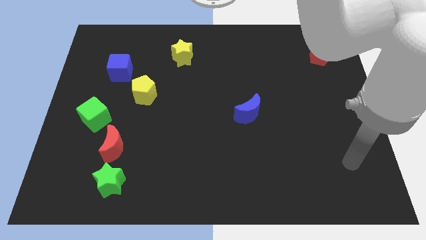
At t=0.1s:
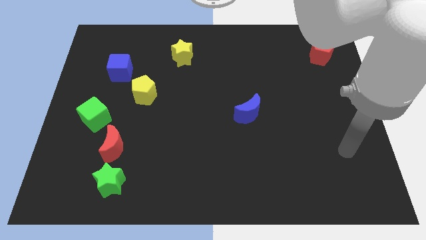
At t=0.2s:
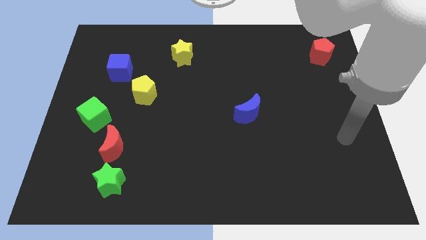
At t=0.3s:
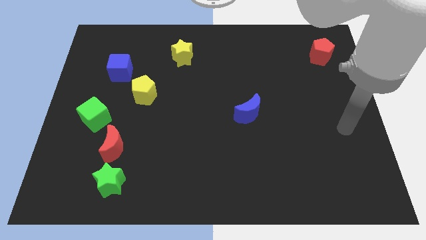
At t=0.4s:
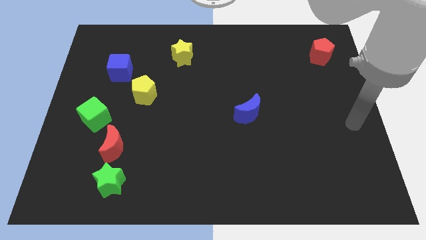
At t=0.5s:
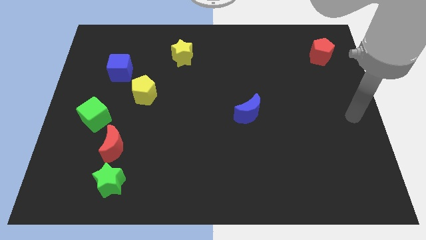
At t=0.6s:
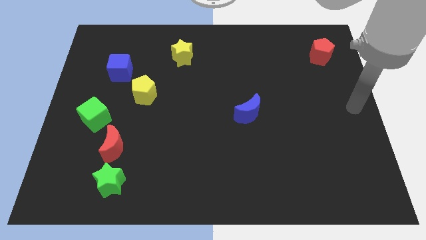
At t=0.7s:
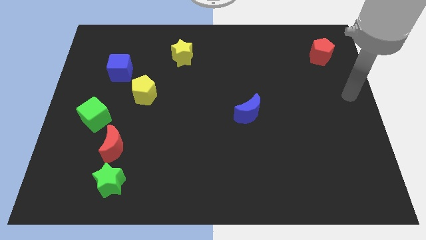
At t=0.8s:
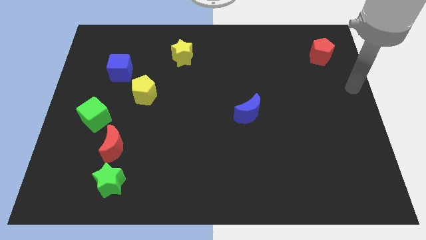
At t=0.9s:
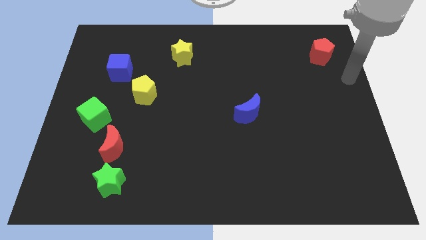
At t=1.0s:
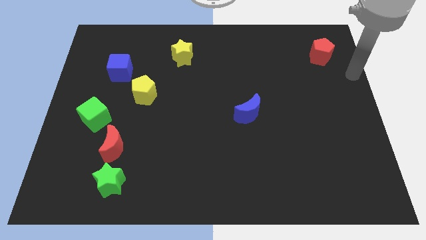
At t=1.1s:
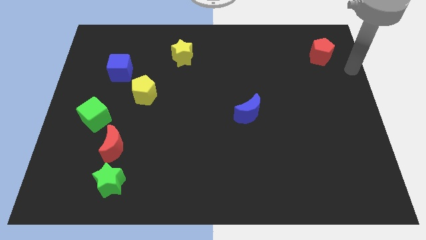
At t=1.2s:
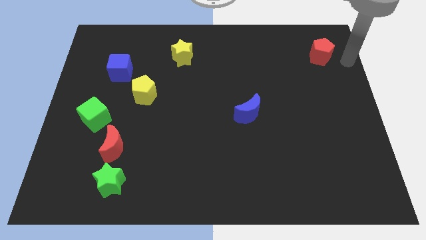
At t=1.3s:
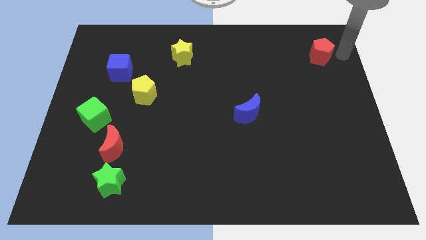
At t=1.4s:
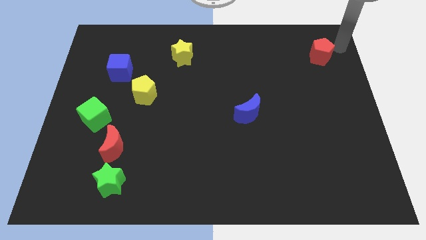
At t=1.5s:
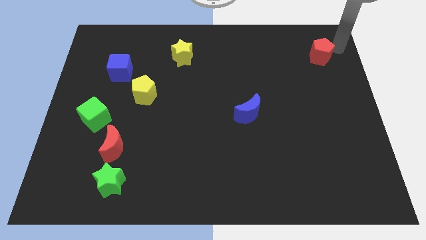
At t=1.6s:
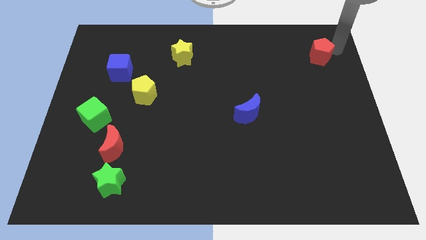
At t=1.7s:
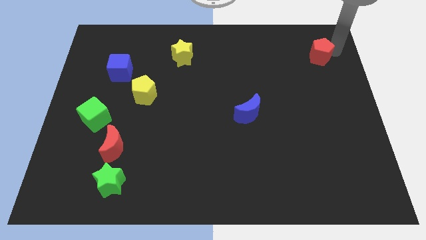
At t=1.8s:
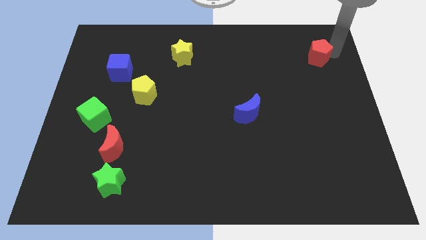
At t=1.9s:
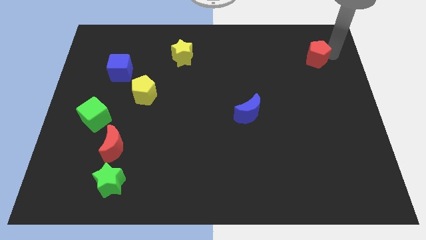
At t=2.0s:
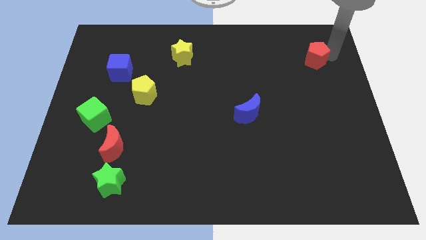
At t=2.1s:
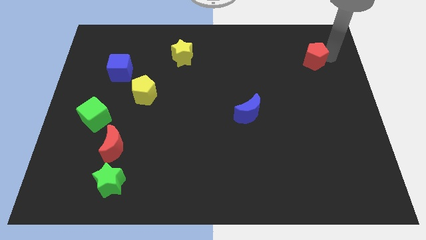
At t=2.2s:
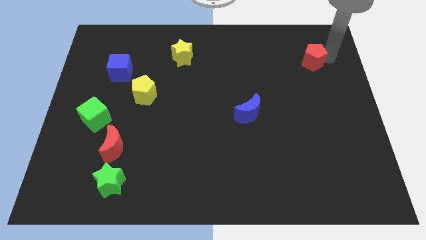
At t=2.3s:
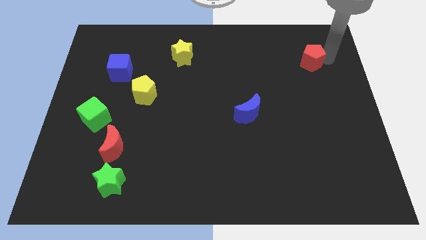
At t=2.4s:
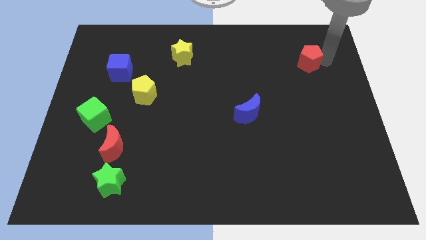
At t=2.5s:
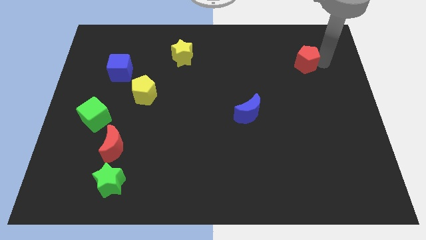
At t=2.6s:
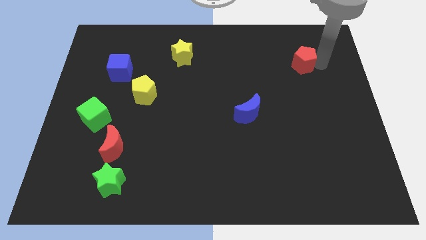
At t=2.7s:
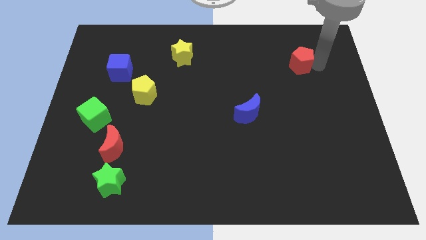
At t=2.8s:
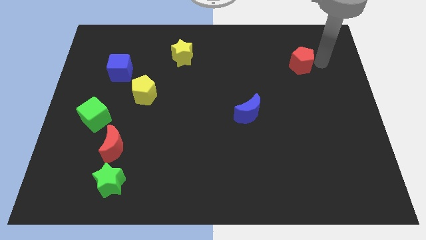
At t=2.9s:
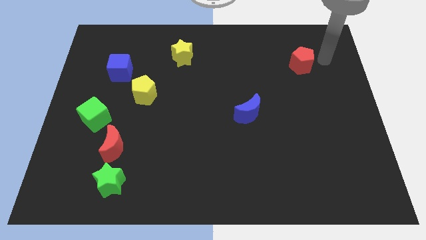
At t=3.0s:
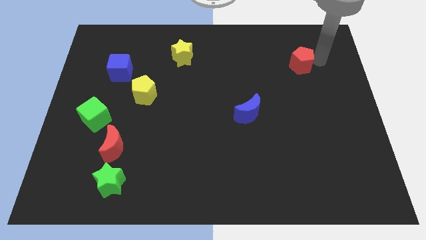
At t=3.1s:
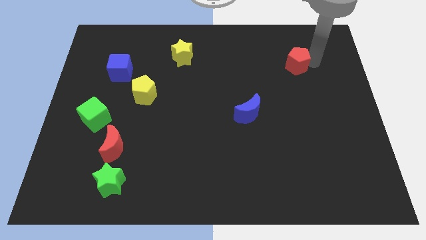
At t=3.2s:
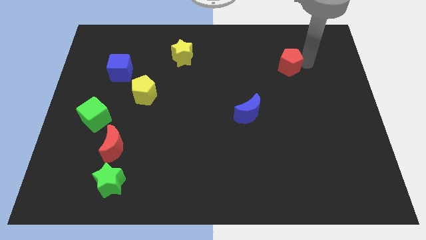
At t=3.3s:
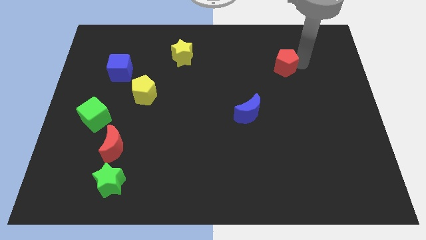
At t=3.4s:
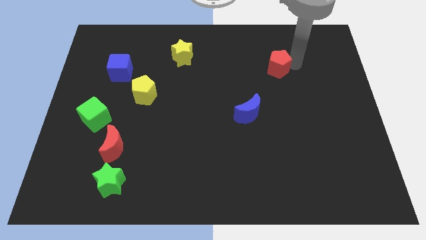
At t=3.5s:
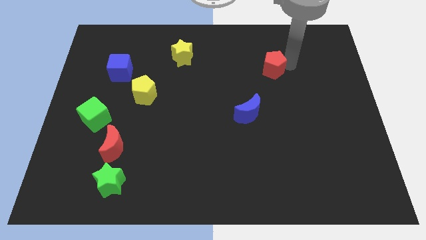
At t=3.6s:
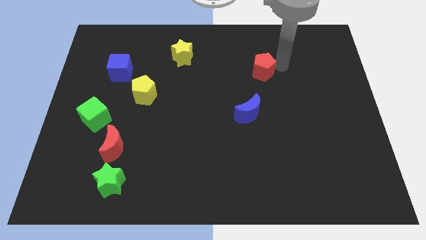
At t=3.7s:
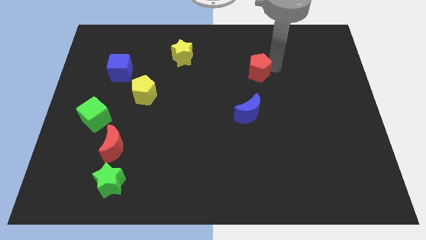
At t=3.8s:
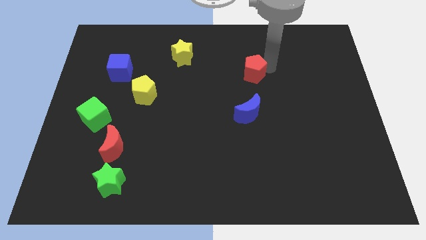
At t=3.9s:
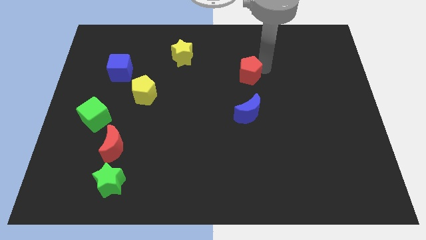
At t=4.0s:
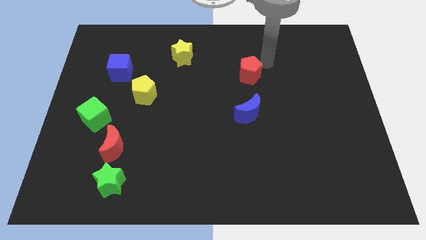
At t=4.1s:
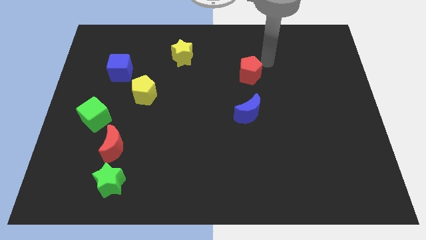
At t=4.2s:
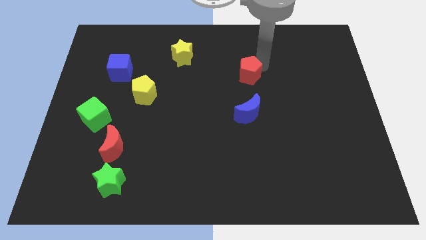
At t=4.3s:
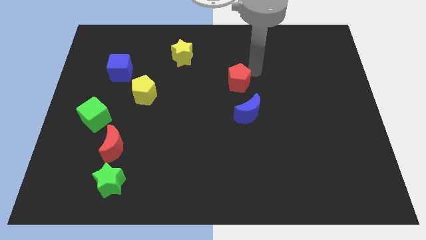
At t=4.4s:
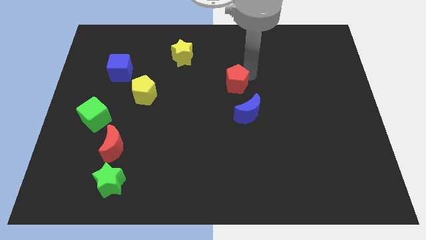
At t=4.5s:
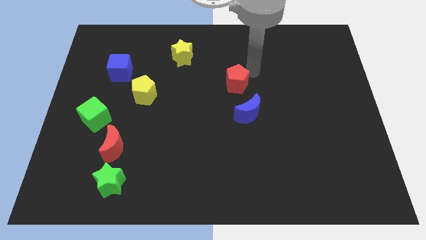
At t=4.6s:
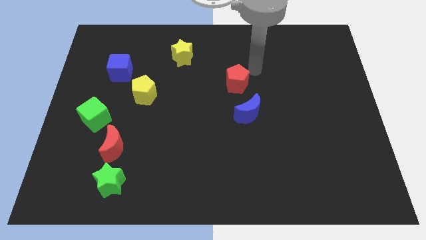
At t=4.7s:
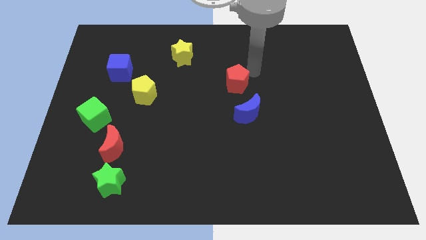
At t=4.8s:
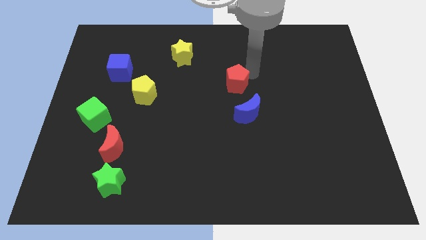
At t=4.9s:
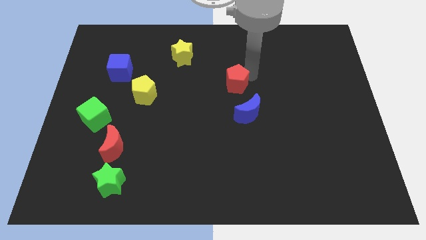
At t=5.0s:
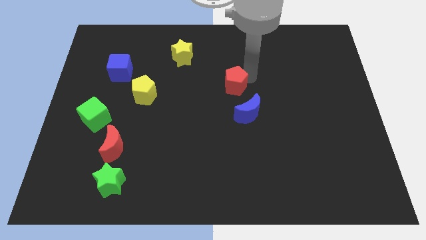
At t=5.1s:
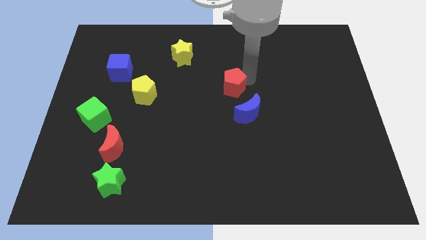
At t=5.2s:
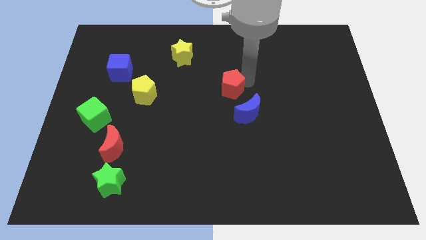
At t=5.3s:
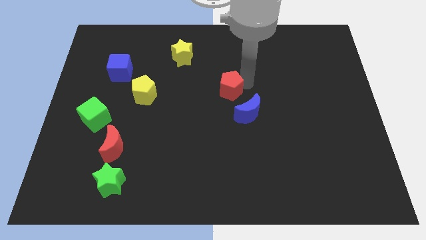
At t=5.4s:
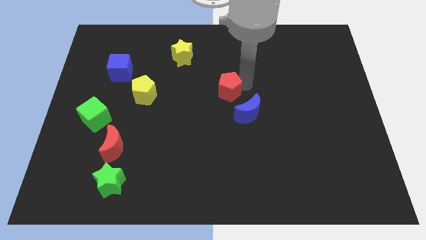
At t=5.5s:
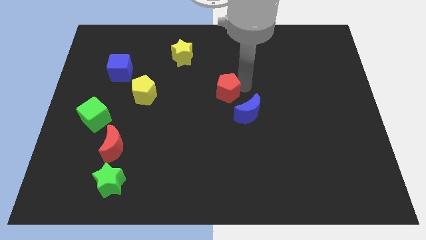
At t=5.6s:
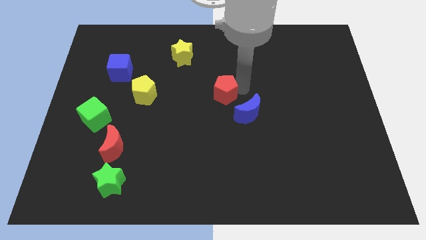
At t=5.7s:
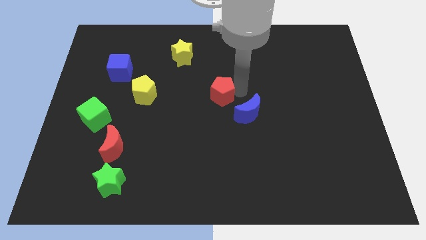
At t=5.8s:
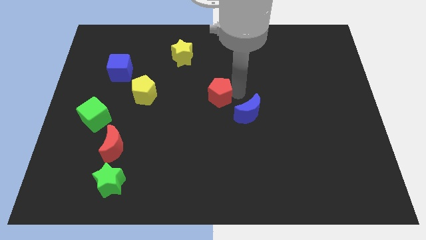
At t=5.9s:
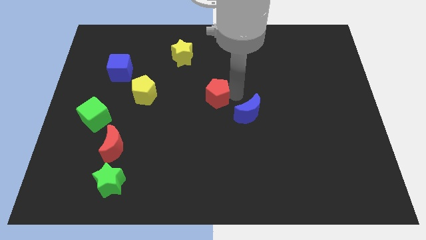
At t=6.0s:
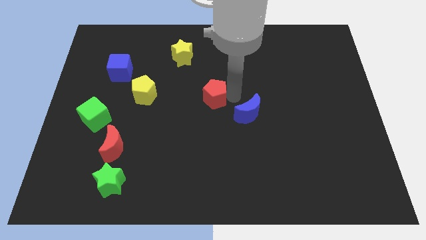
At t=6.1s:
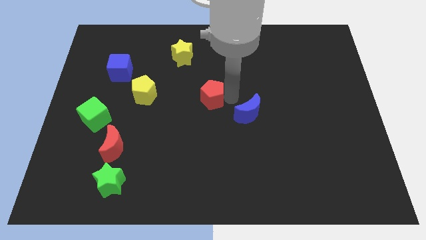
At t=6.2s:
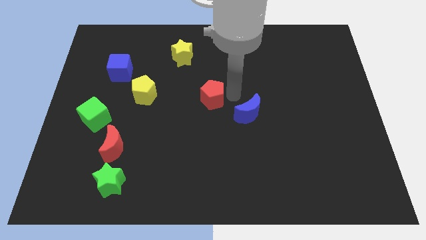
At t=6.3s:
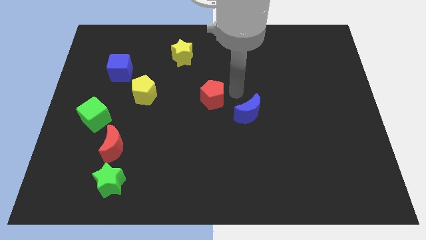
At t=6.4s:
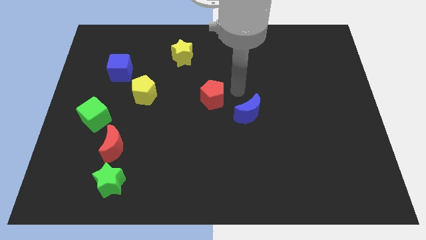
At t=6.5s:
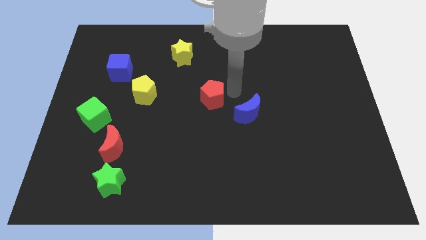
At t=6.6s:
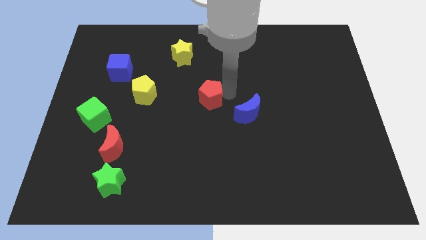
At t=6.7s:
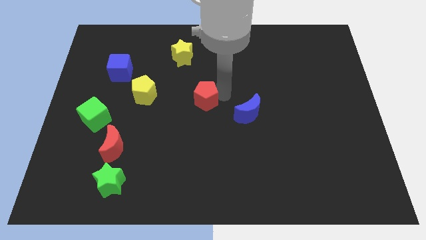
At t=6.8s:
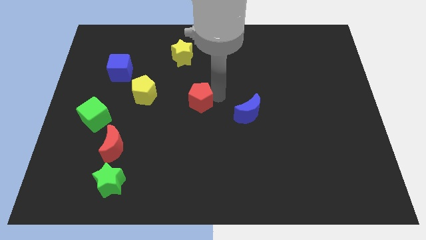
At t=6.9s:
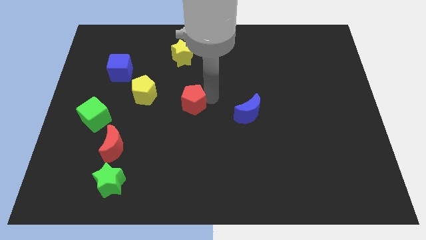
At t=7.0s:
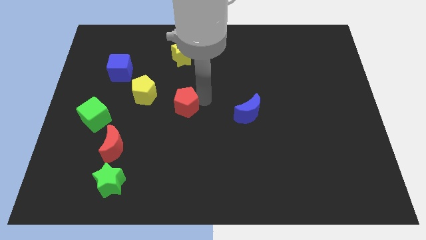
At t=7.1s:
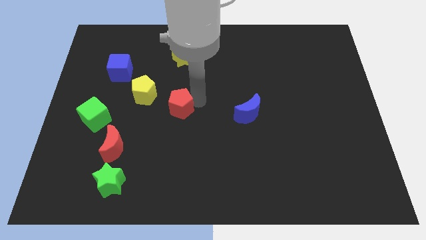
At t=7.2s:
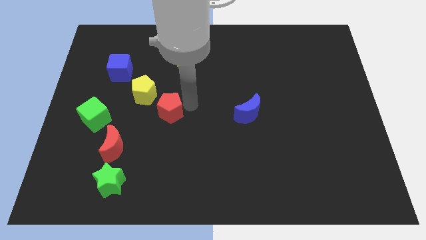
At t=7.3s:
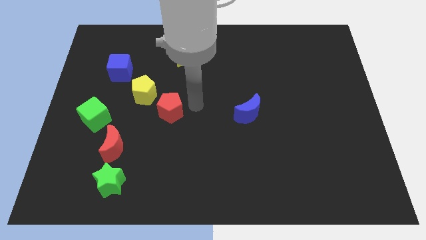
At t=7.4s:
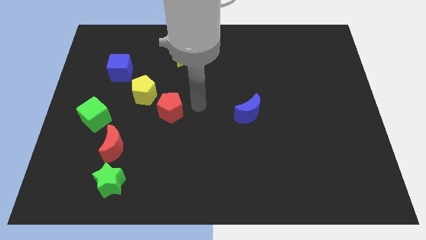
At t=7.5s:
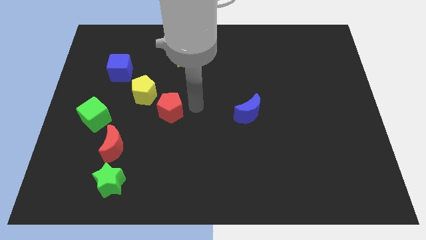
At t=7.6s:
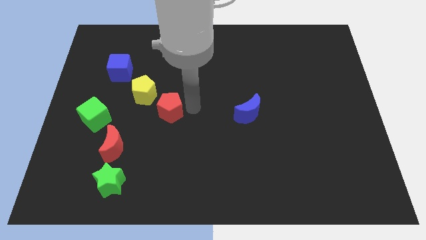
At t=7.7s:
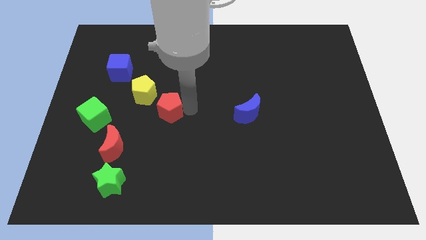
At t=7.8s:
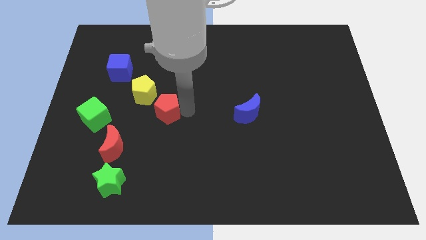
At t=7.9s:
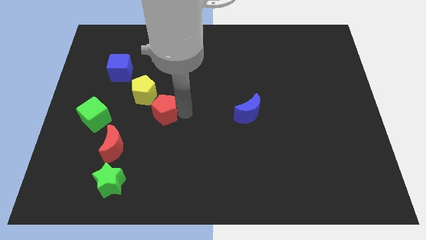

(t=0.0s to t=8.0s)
move the red pentagon just right of the green cube

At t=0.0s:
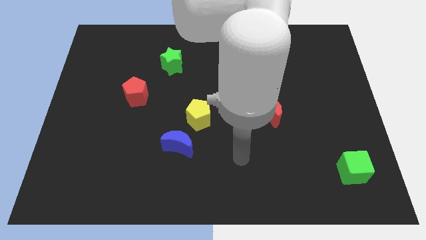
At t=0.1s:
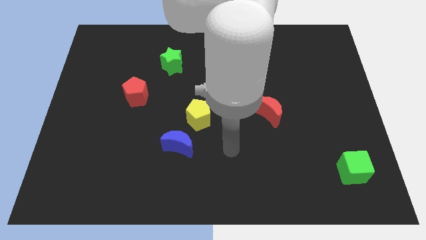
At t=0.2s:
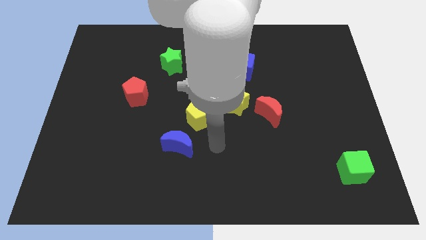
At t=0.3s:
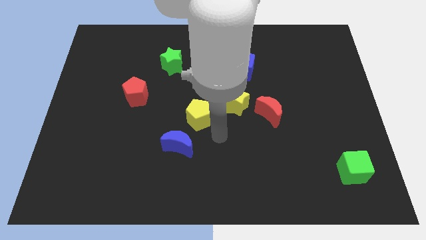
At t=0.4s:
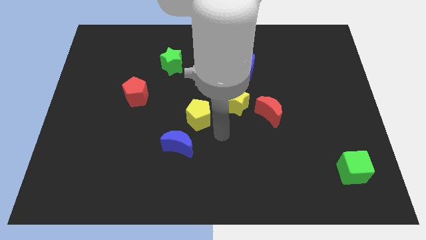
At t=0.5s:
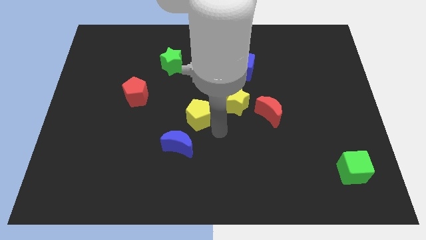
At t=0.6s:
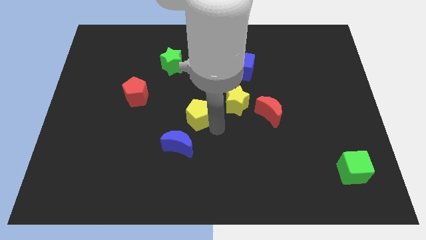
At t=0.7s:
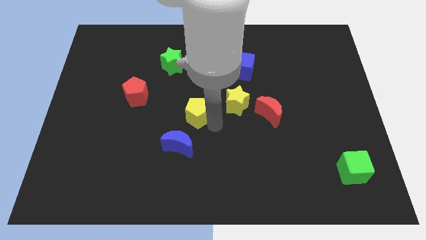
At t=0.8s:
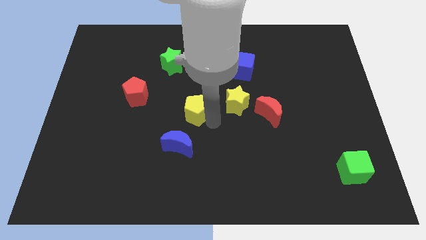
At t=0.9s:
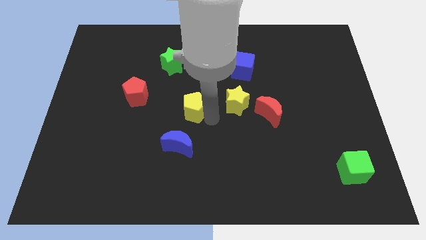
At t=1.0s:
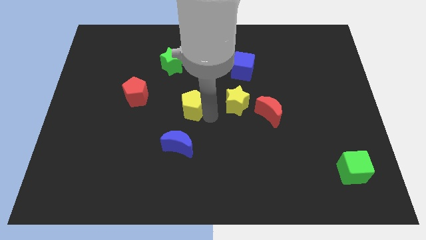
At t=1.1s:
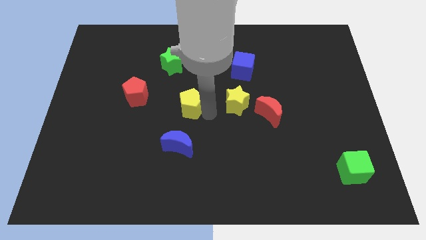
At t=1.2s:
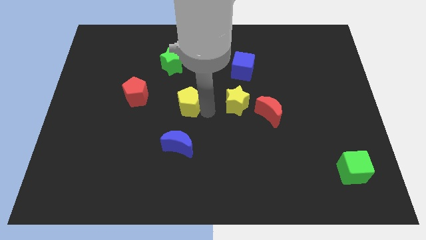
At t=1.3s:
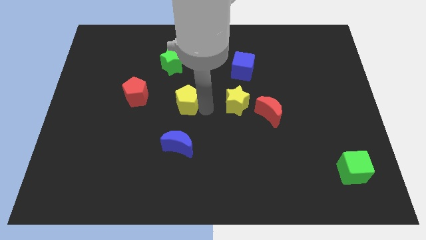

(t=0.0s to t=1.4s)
put the yellow pentagon to the bottom of the green star
